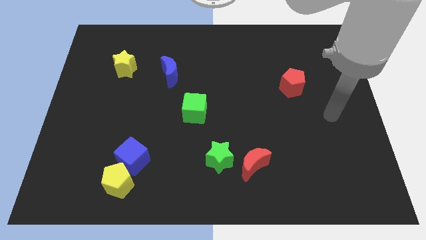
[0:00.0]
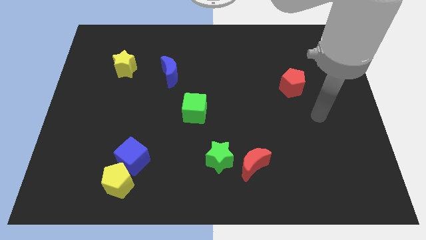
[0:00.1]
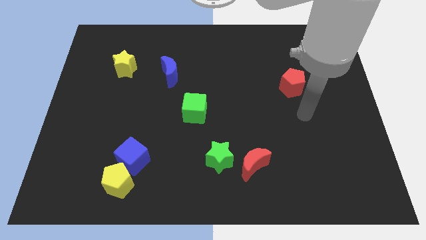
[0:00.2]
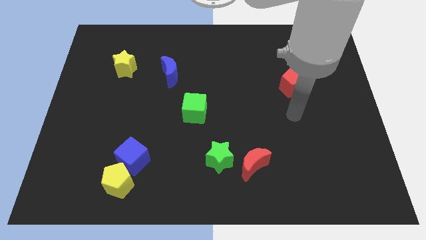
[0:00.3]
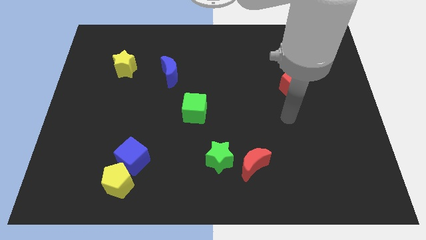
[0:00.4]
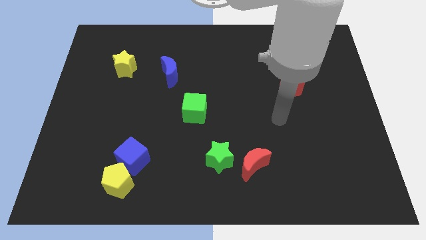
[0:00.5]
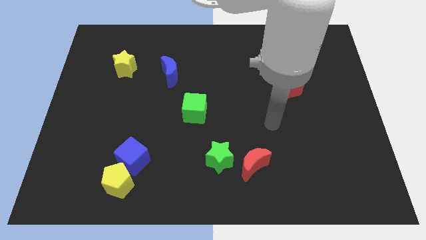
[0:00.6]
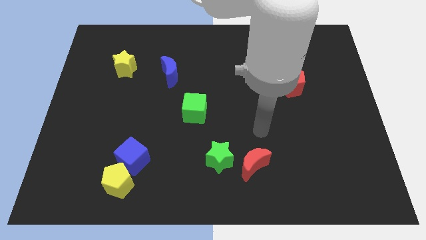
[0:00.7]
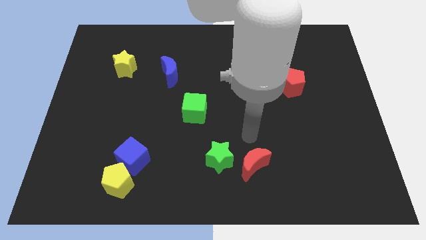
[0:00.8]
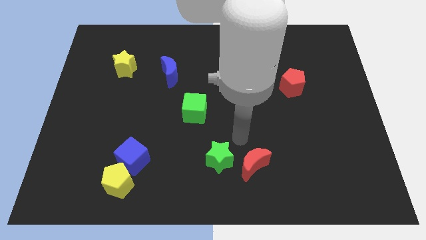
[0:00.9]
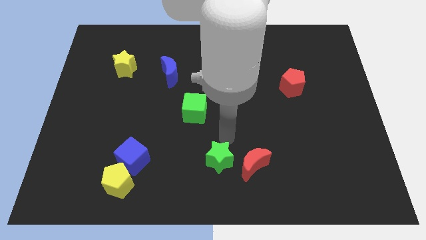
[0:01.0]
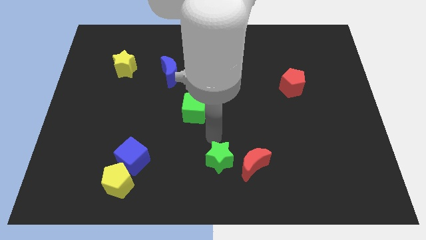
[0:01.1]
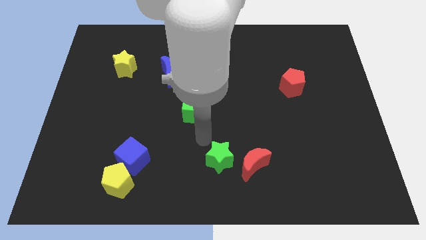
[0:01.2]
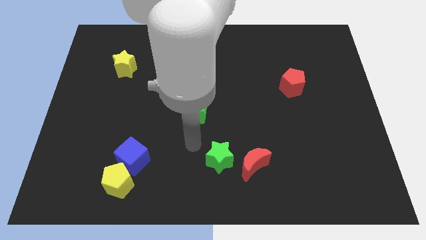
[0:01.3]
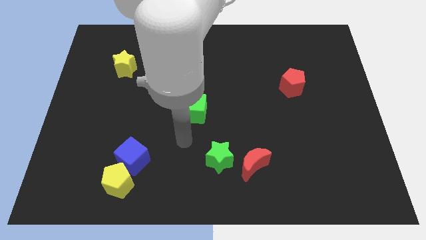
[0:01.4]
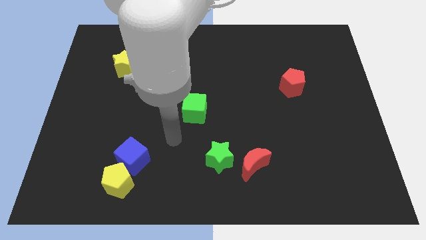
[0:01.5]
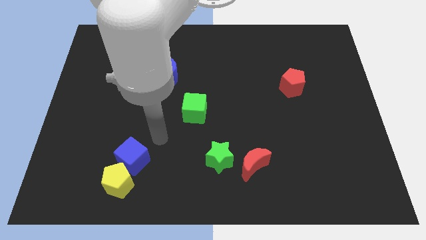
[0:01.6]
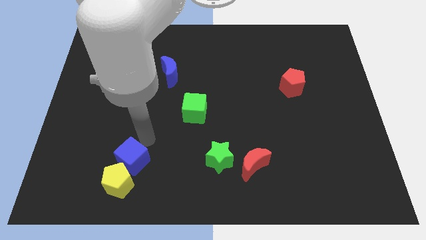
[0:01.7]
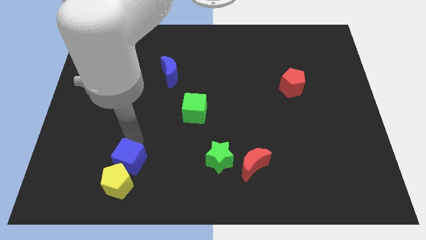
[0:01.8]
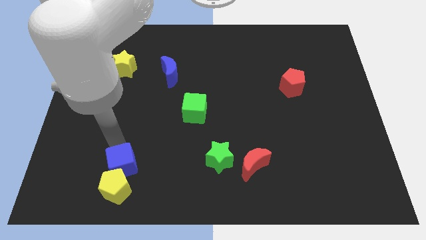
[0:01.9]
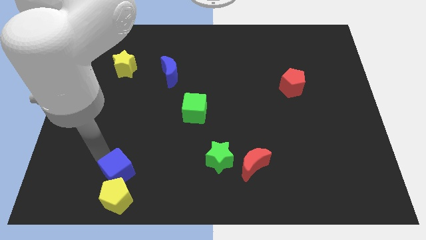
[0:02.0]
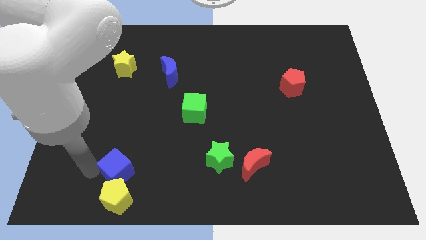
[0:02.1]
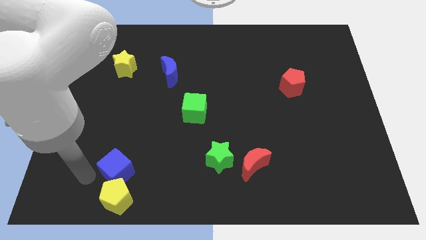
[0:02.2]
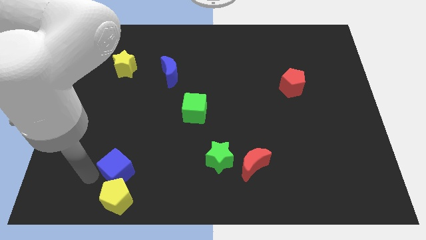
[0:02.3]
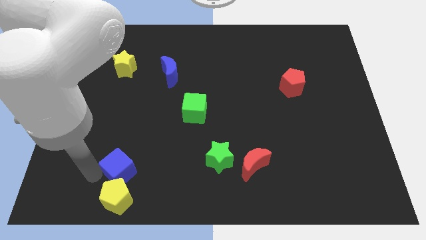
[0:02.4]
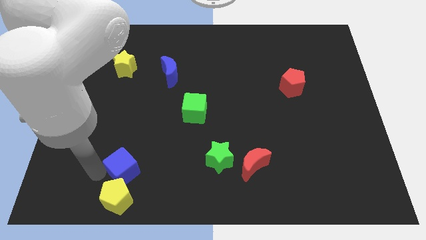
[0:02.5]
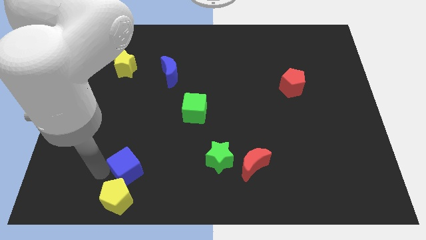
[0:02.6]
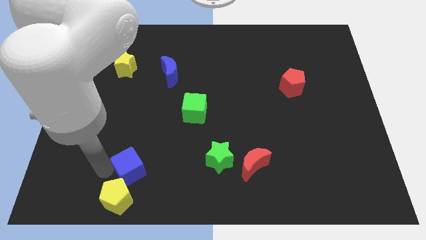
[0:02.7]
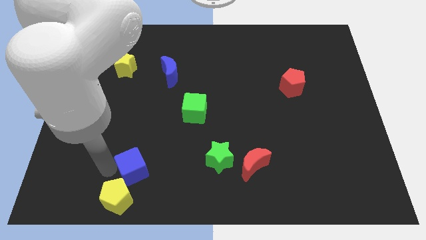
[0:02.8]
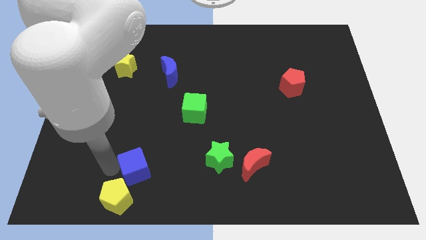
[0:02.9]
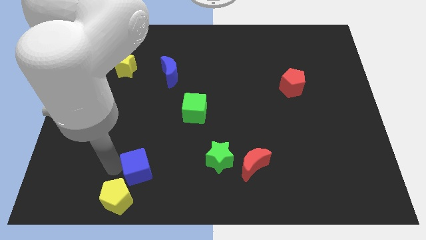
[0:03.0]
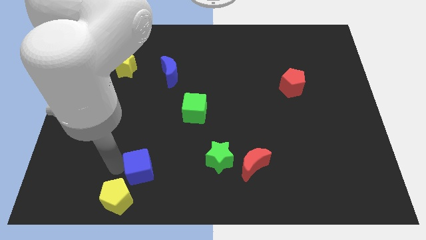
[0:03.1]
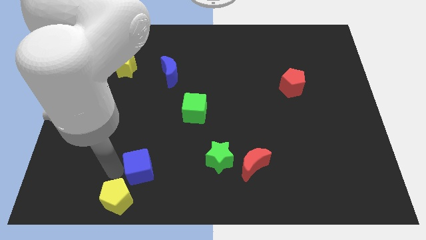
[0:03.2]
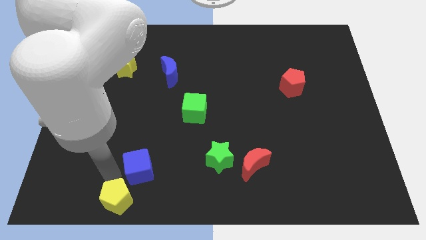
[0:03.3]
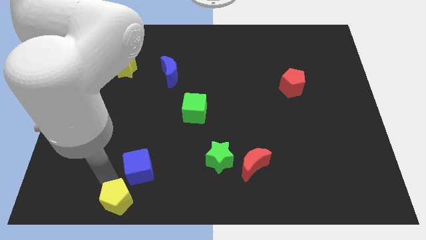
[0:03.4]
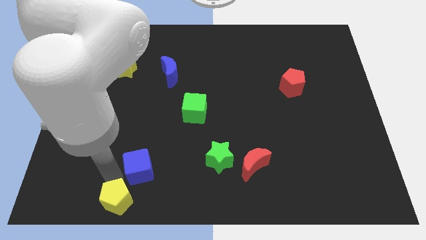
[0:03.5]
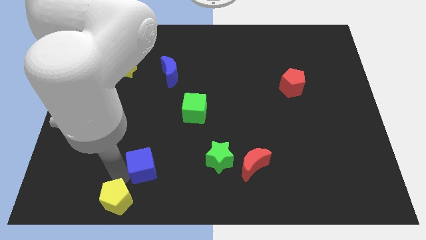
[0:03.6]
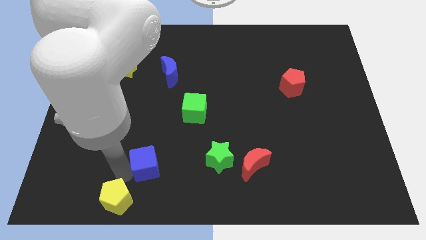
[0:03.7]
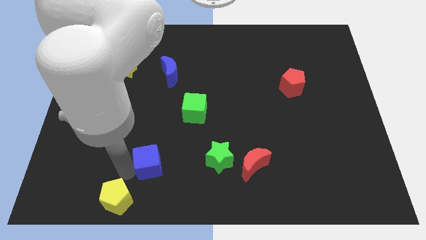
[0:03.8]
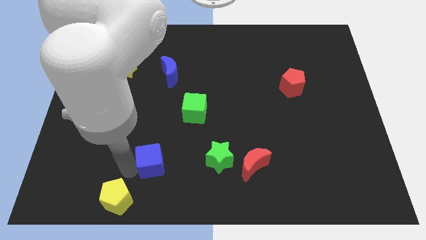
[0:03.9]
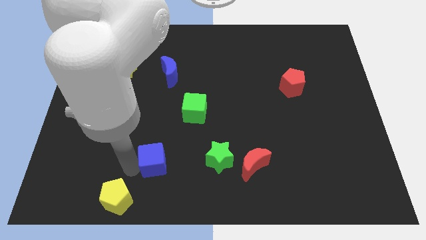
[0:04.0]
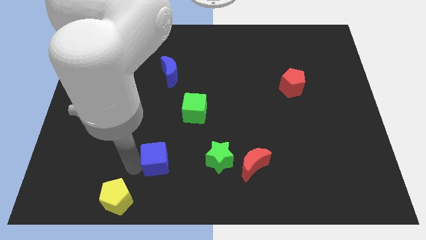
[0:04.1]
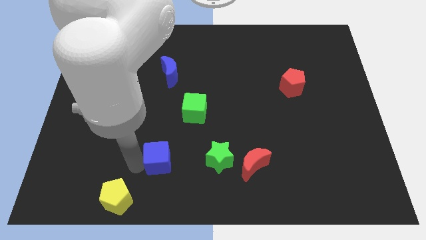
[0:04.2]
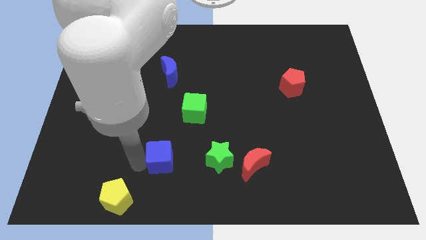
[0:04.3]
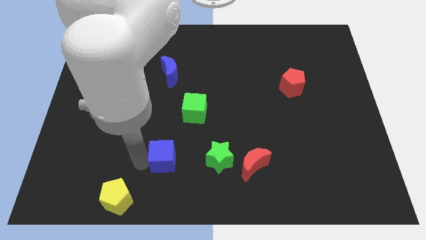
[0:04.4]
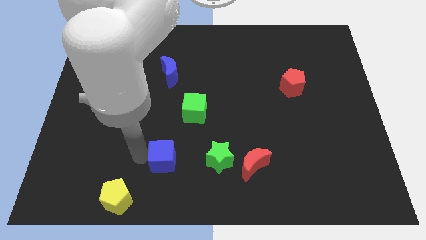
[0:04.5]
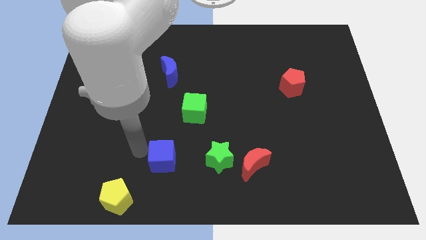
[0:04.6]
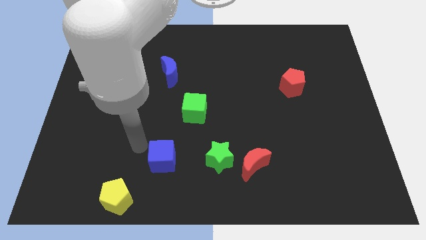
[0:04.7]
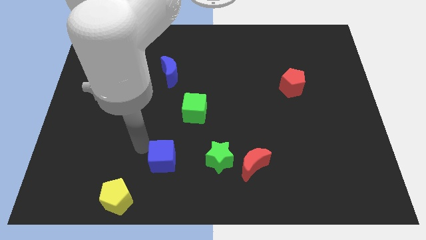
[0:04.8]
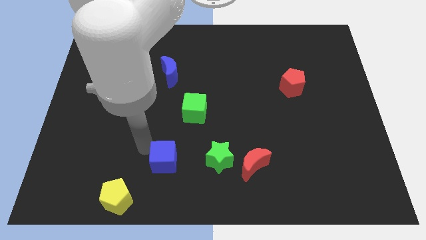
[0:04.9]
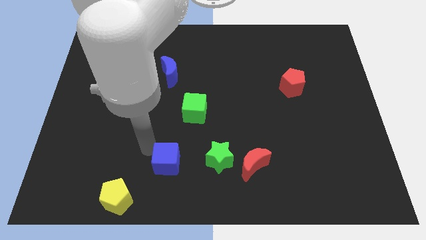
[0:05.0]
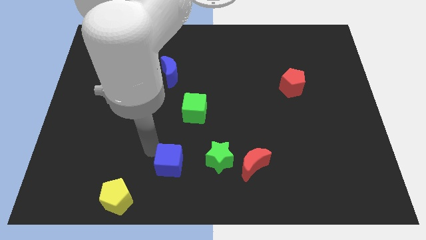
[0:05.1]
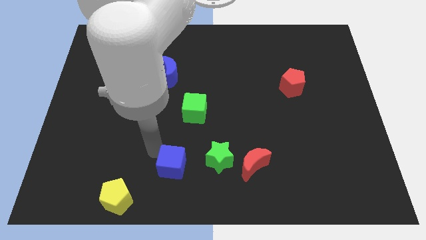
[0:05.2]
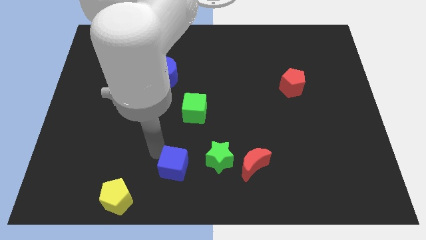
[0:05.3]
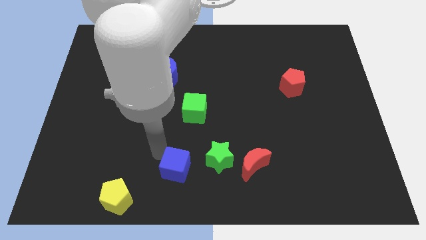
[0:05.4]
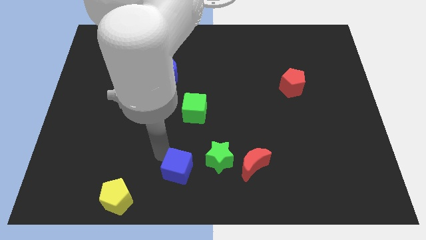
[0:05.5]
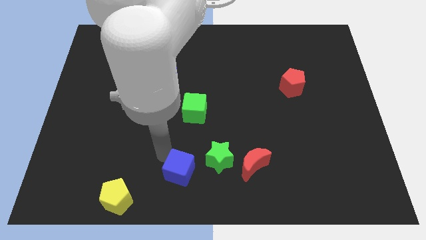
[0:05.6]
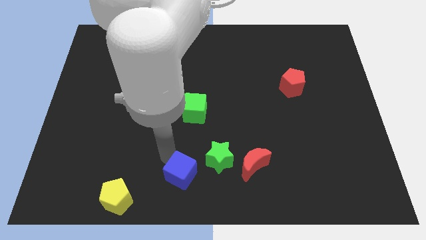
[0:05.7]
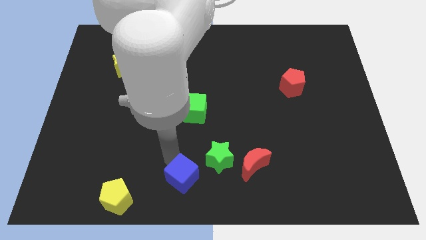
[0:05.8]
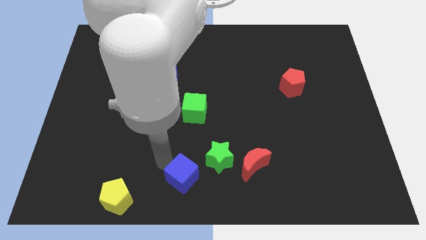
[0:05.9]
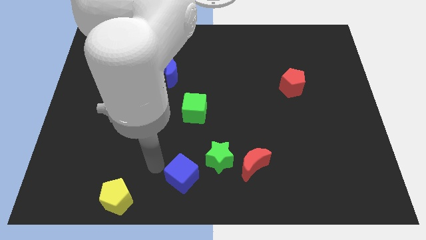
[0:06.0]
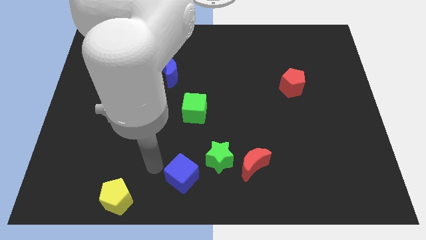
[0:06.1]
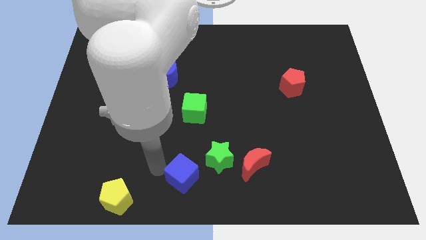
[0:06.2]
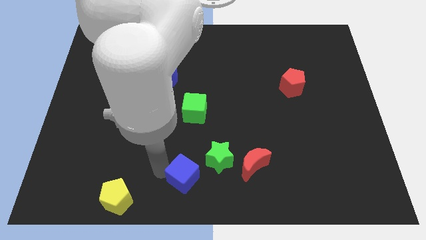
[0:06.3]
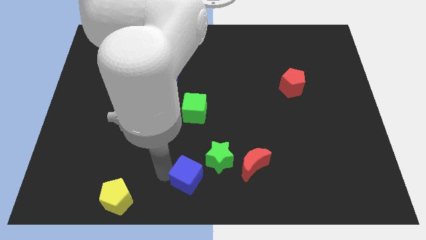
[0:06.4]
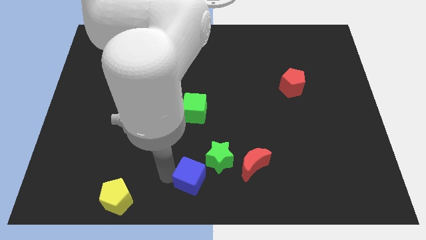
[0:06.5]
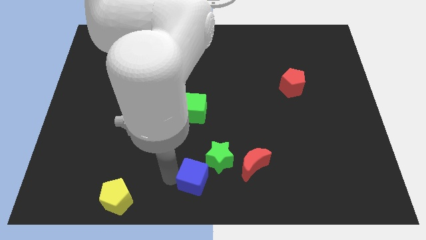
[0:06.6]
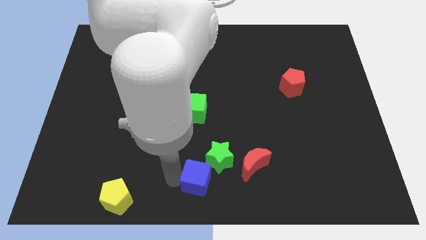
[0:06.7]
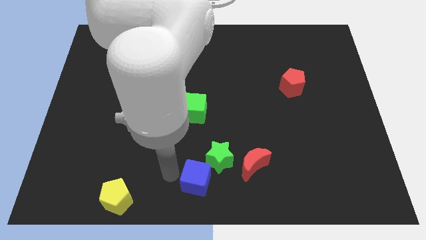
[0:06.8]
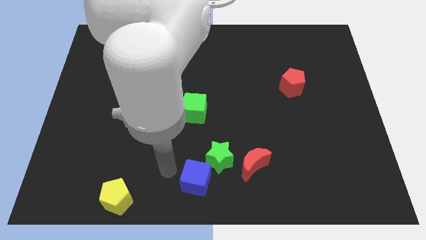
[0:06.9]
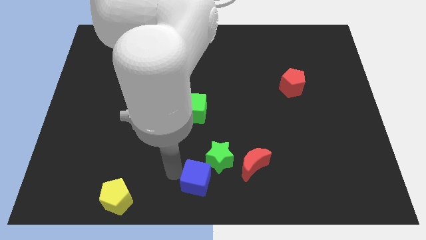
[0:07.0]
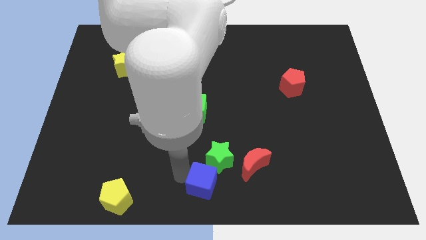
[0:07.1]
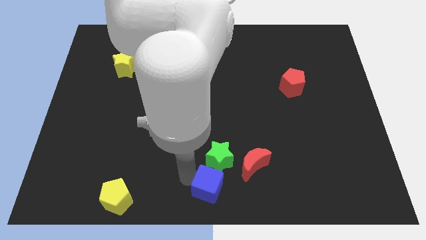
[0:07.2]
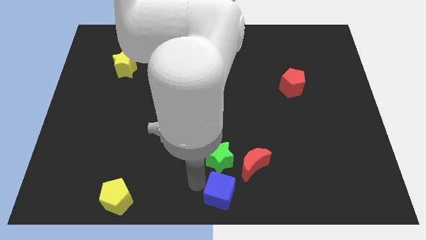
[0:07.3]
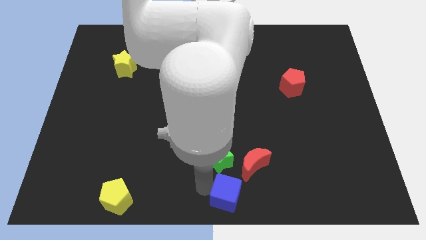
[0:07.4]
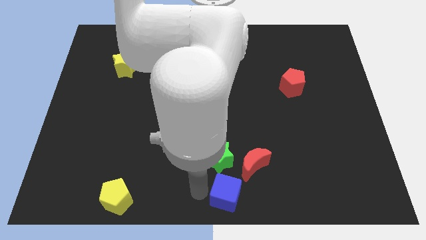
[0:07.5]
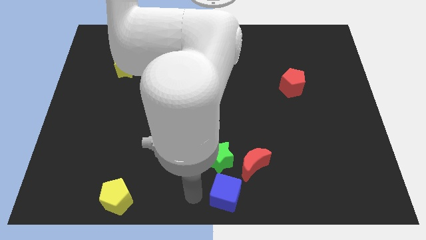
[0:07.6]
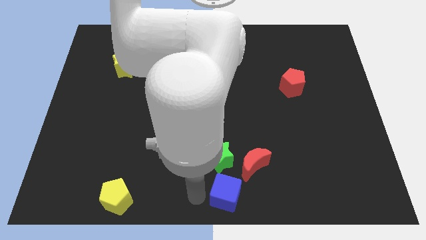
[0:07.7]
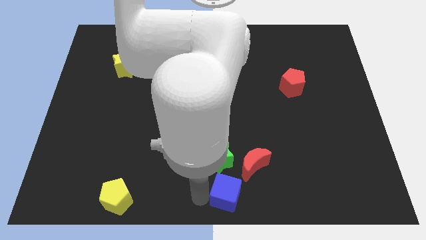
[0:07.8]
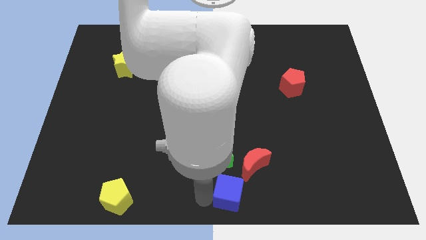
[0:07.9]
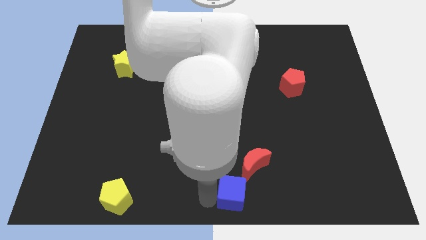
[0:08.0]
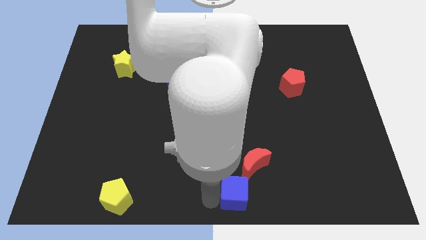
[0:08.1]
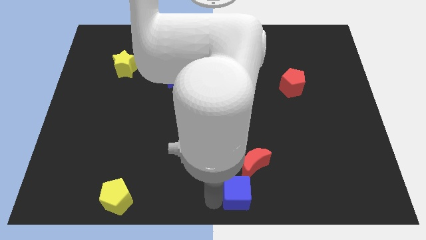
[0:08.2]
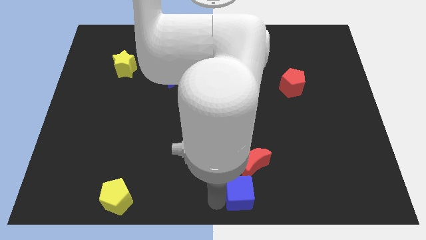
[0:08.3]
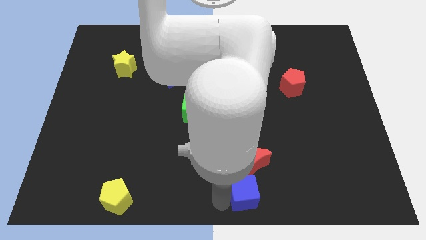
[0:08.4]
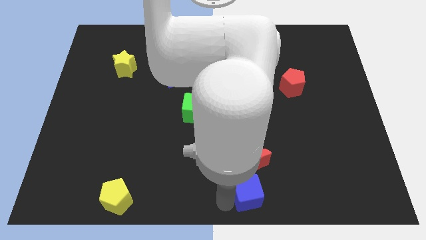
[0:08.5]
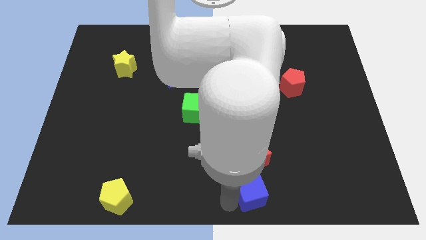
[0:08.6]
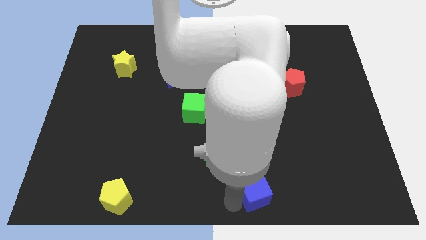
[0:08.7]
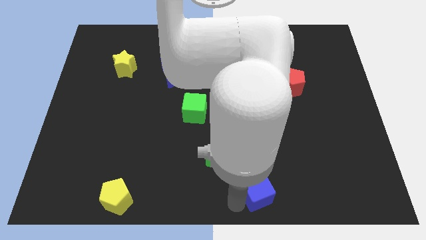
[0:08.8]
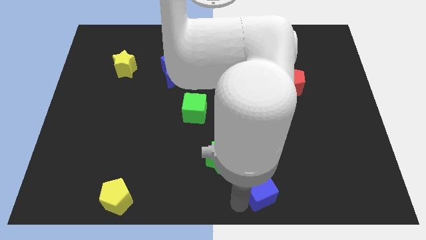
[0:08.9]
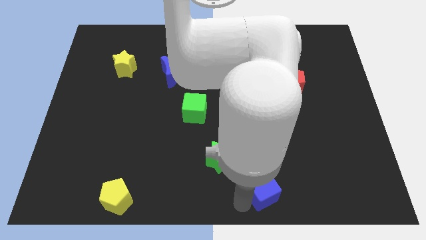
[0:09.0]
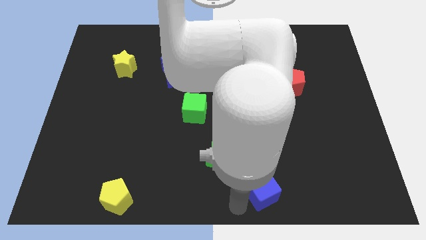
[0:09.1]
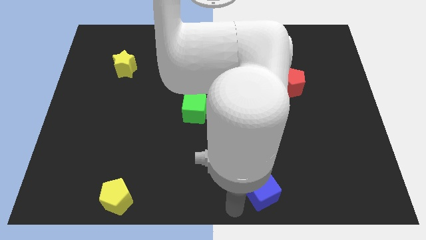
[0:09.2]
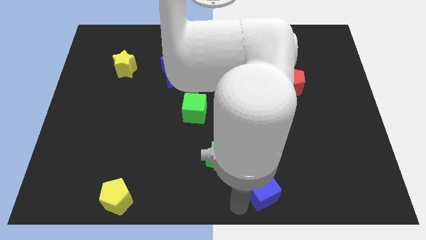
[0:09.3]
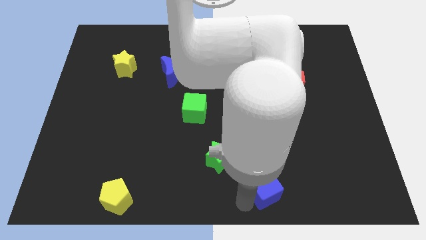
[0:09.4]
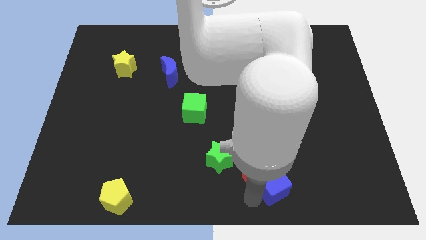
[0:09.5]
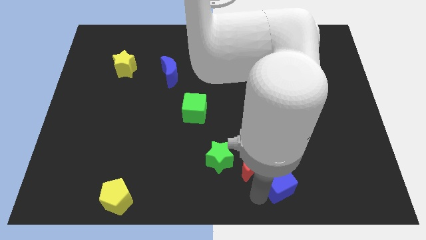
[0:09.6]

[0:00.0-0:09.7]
push the blue cube to the right side of the red moon
